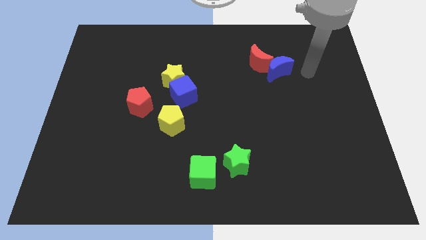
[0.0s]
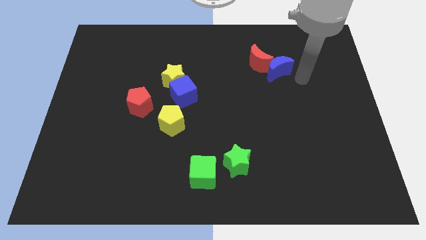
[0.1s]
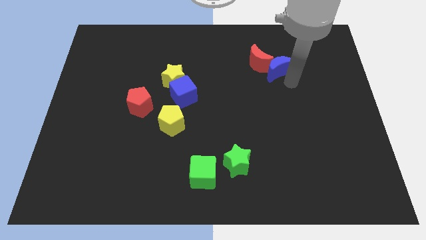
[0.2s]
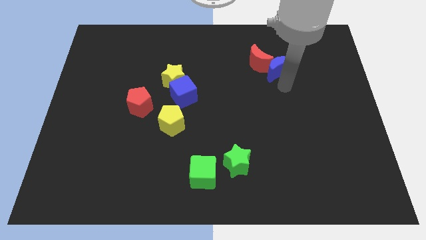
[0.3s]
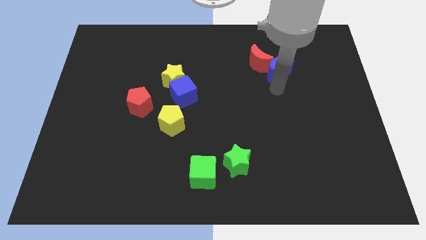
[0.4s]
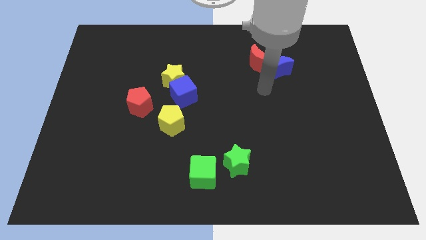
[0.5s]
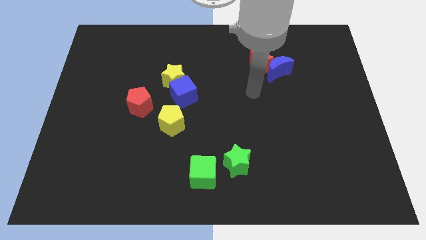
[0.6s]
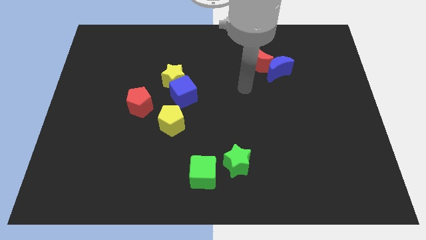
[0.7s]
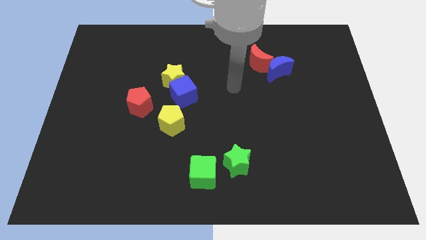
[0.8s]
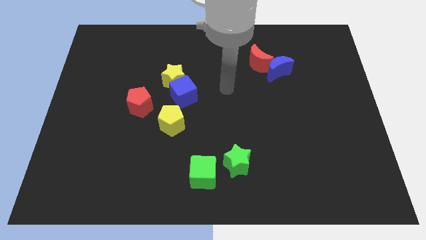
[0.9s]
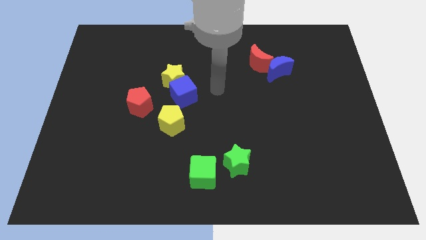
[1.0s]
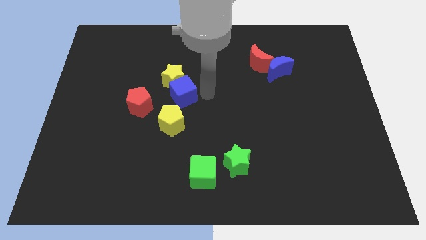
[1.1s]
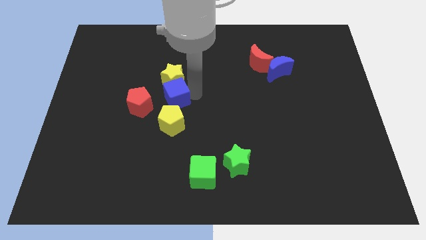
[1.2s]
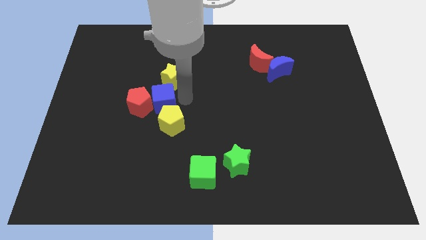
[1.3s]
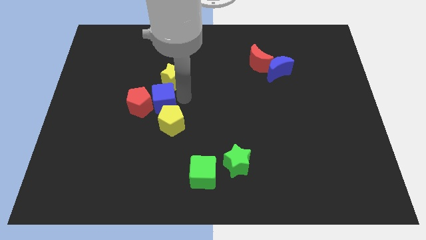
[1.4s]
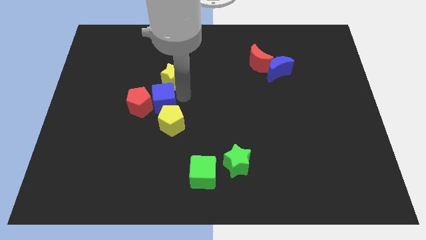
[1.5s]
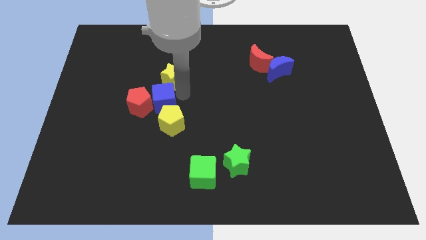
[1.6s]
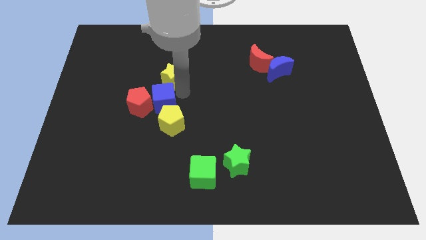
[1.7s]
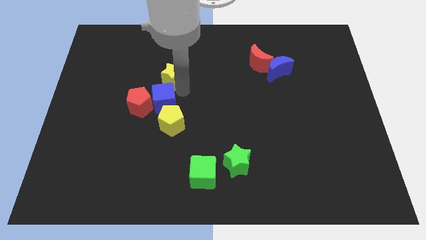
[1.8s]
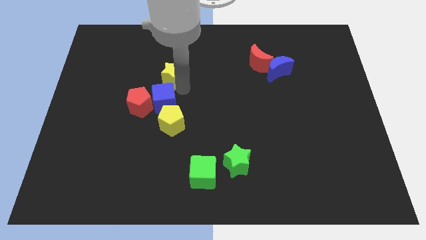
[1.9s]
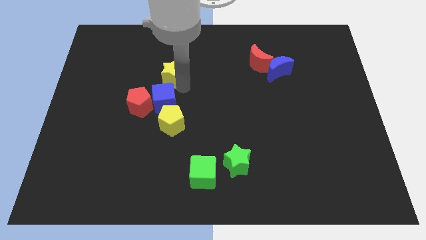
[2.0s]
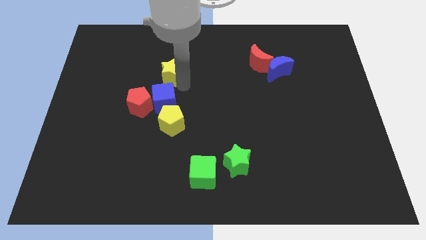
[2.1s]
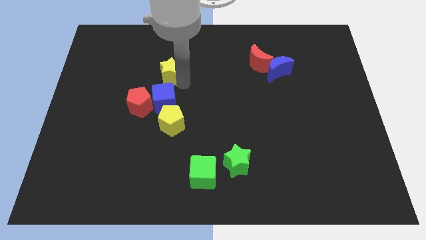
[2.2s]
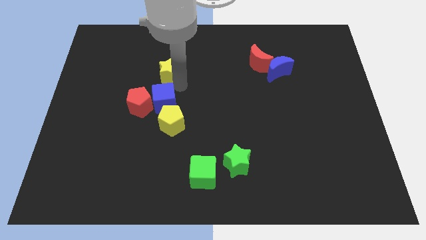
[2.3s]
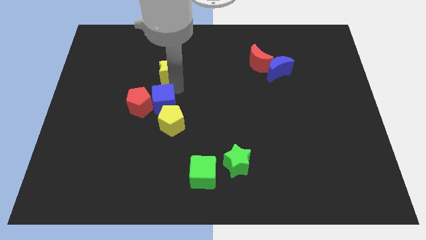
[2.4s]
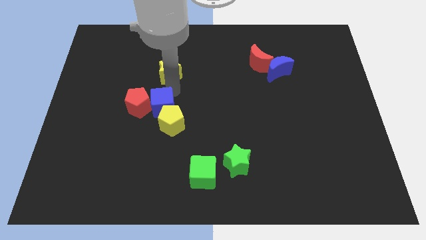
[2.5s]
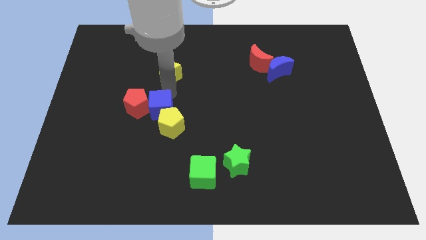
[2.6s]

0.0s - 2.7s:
move the yellow star away from the blue cube

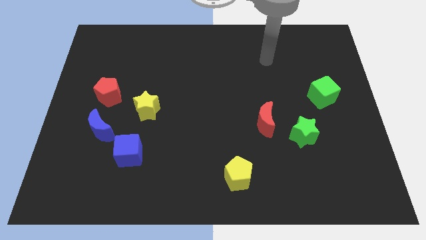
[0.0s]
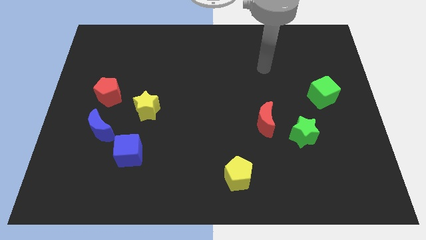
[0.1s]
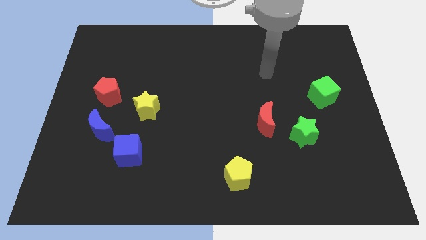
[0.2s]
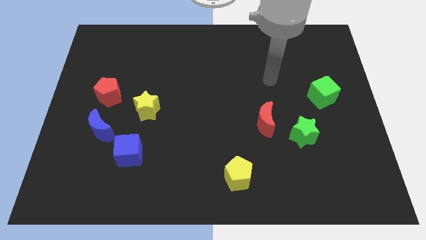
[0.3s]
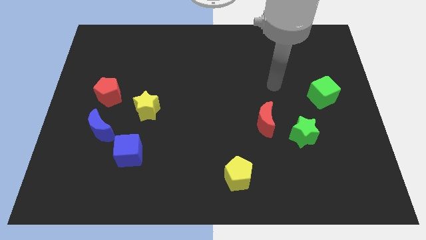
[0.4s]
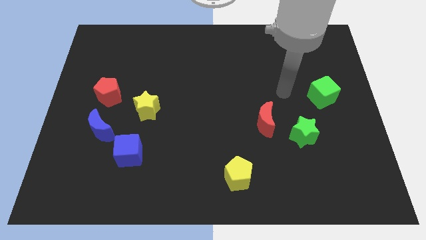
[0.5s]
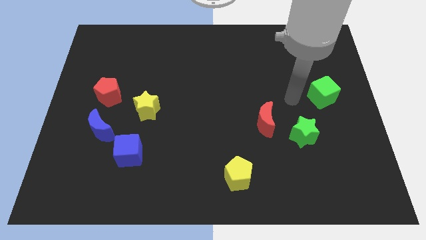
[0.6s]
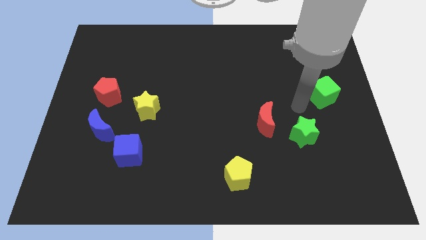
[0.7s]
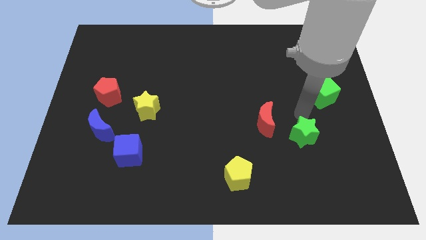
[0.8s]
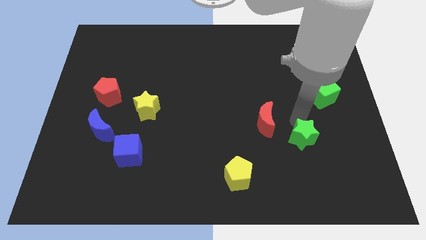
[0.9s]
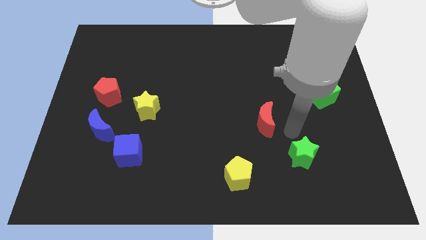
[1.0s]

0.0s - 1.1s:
move the red moon away from the green star

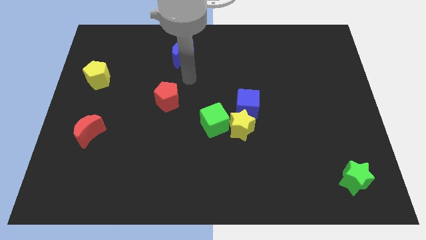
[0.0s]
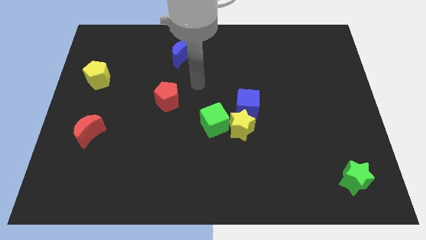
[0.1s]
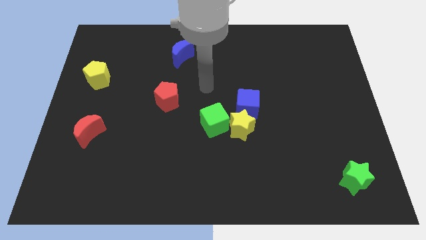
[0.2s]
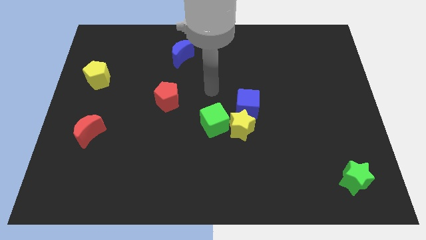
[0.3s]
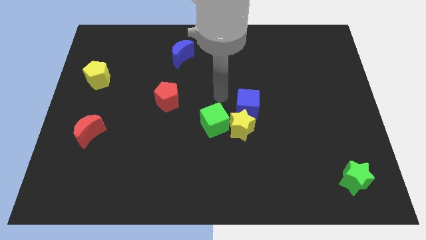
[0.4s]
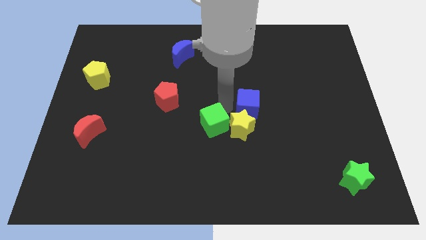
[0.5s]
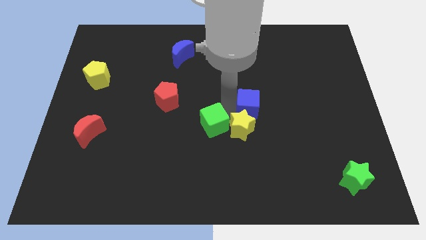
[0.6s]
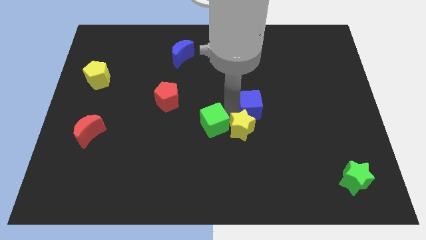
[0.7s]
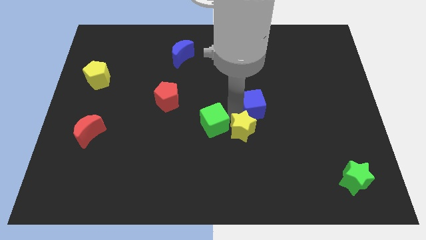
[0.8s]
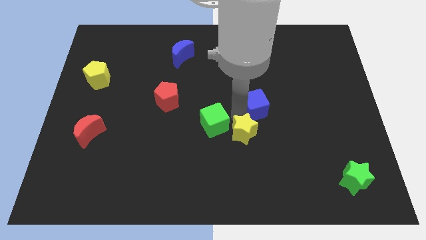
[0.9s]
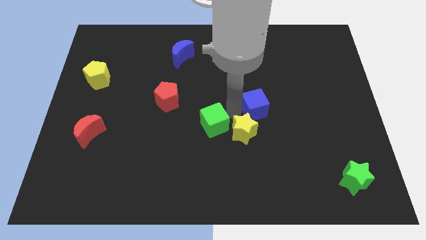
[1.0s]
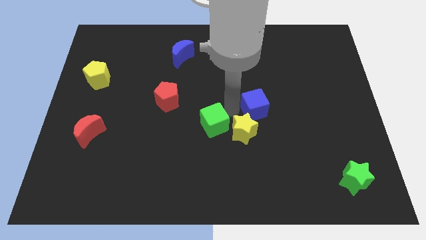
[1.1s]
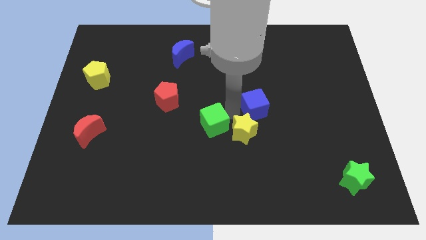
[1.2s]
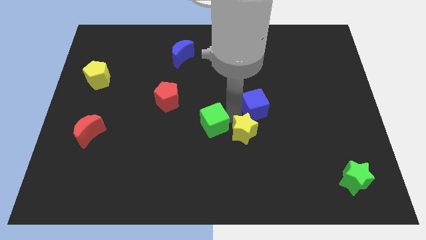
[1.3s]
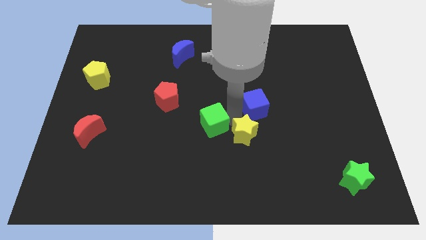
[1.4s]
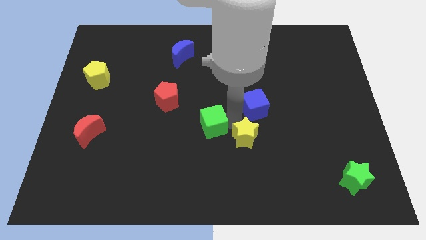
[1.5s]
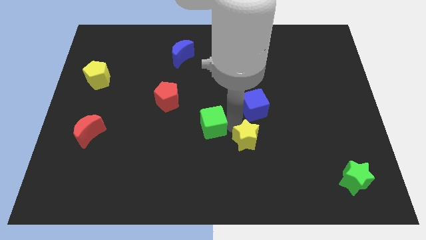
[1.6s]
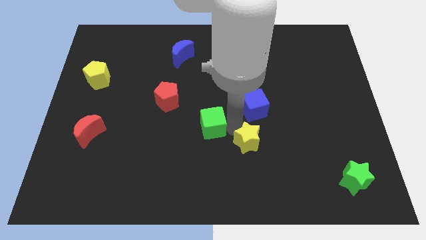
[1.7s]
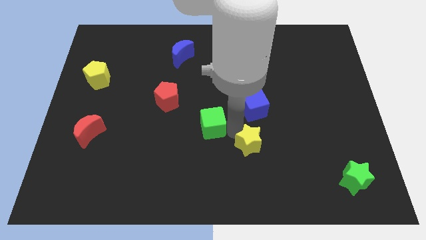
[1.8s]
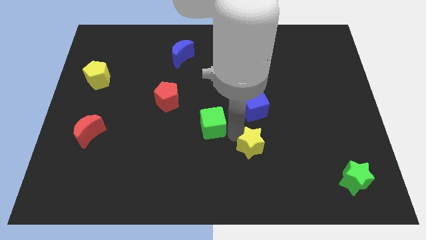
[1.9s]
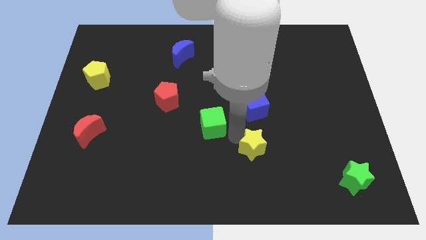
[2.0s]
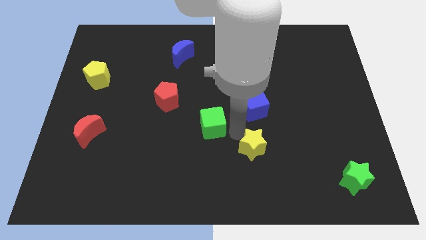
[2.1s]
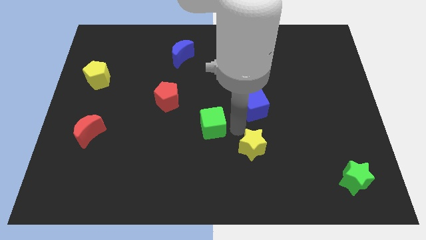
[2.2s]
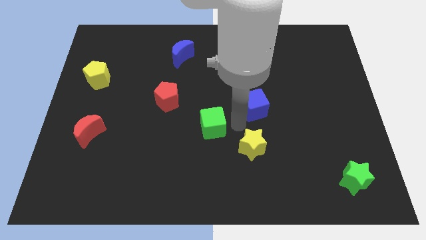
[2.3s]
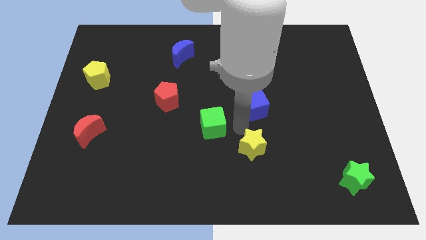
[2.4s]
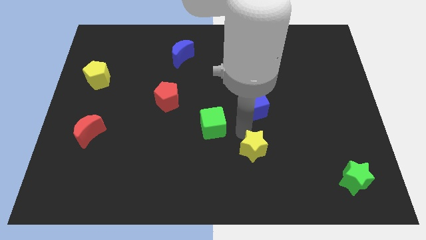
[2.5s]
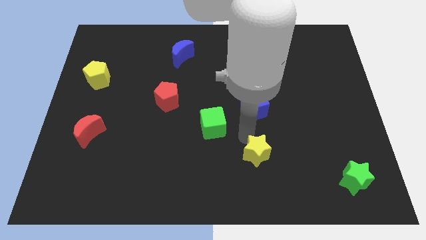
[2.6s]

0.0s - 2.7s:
separate the yellow star from the blue cube and green cube

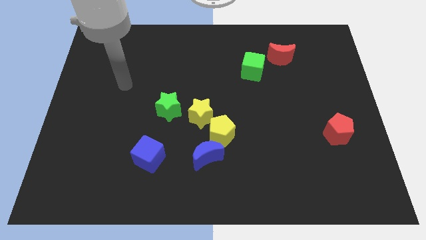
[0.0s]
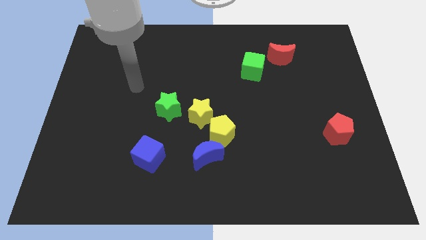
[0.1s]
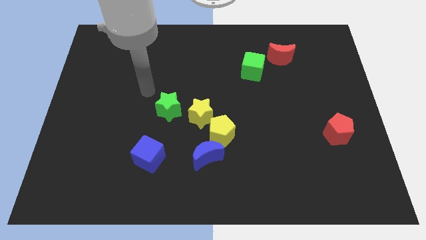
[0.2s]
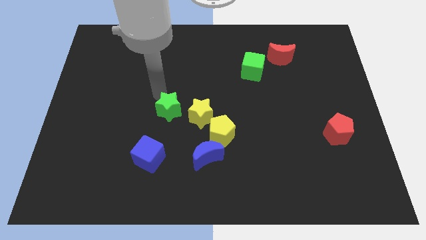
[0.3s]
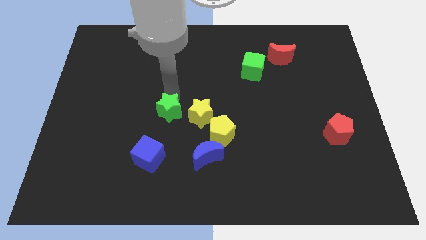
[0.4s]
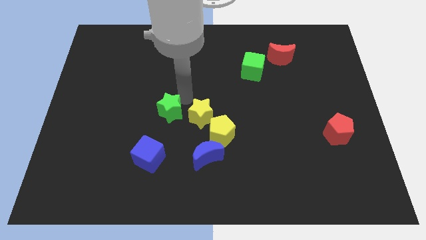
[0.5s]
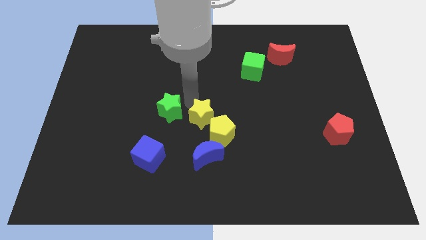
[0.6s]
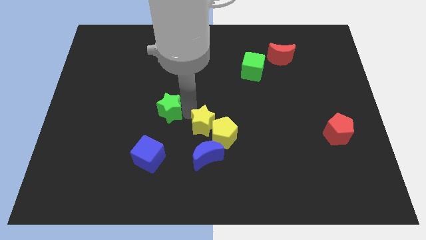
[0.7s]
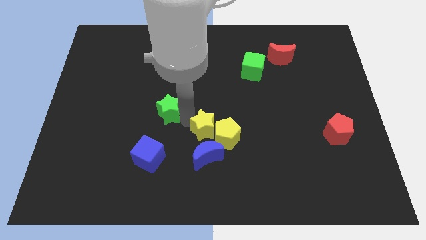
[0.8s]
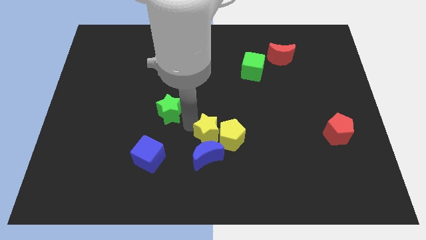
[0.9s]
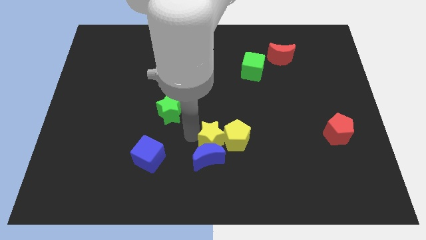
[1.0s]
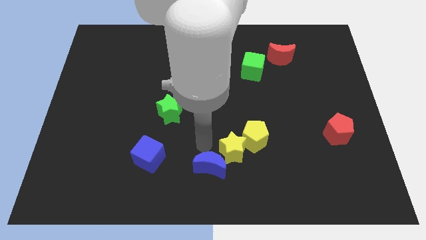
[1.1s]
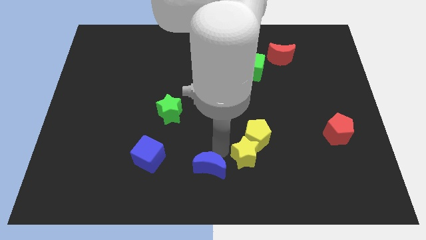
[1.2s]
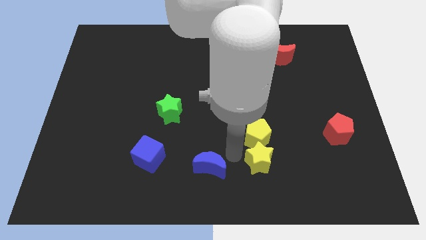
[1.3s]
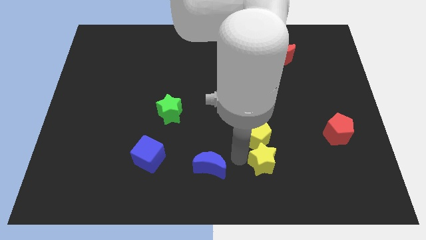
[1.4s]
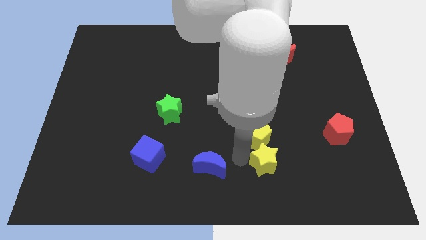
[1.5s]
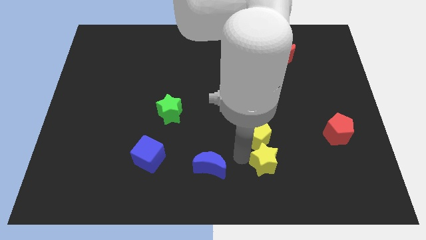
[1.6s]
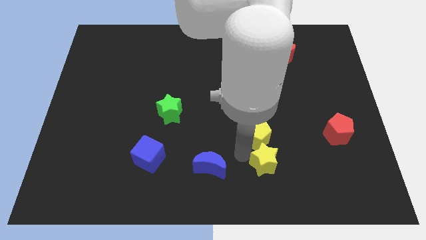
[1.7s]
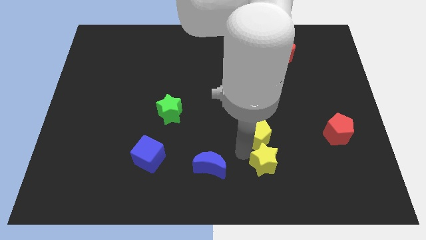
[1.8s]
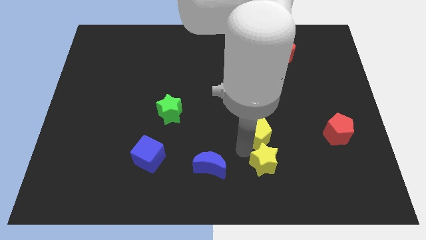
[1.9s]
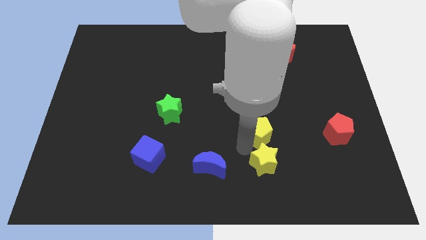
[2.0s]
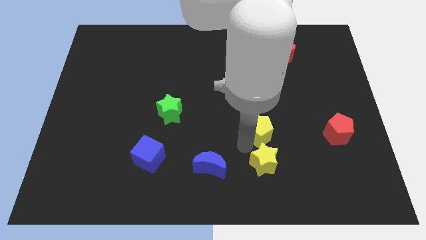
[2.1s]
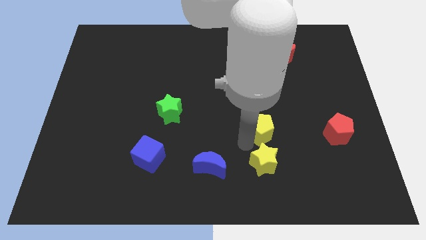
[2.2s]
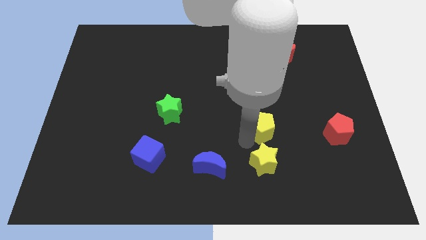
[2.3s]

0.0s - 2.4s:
separate the yellow pentagon from the yellow star and blue moon

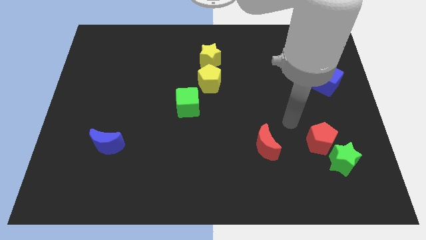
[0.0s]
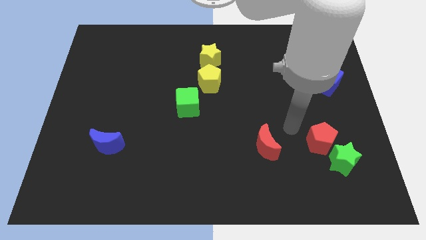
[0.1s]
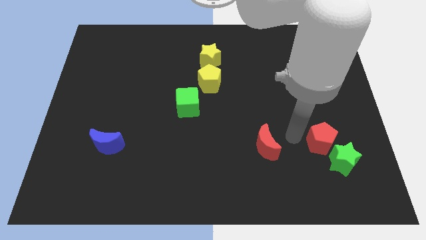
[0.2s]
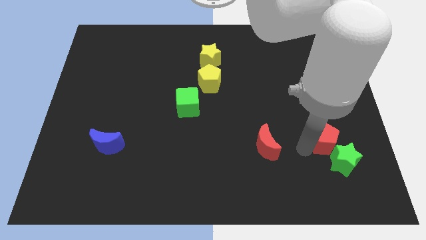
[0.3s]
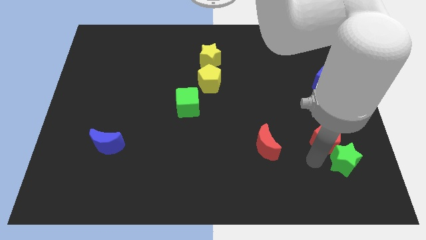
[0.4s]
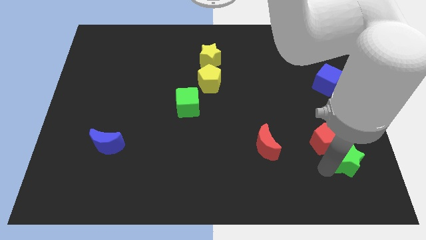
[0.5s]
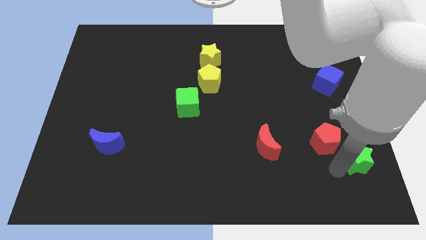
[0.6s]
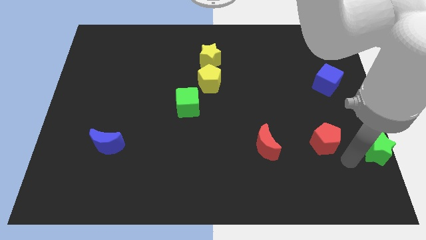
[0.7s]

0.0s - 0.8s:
move the red pentagon away from the green star
